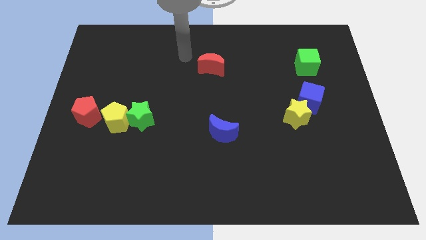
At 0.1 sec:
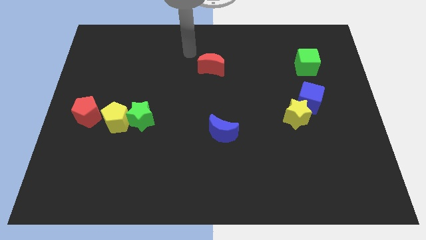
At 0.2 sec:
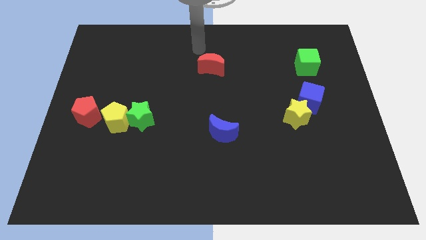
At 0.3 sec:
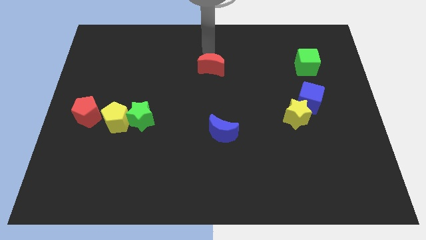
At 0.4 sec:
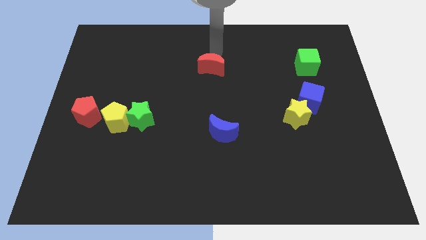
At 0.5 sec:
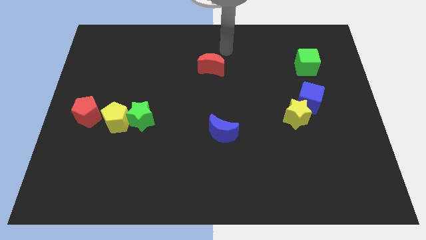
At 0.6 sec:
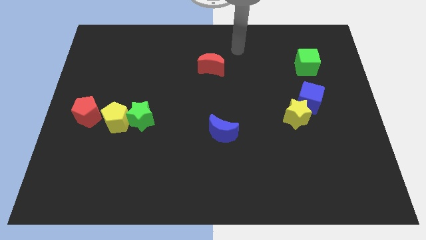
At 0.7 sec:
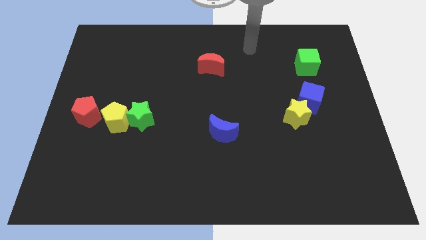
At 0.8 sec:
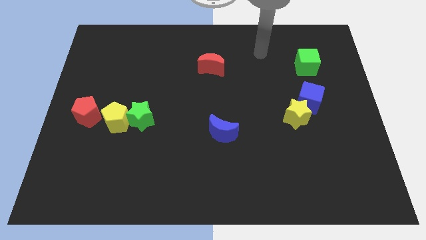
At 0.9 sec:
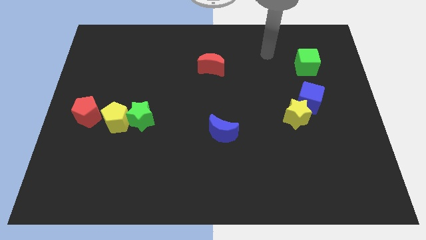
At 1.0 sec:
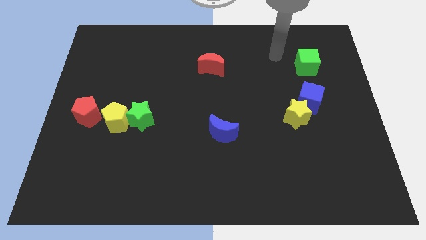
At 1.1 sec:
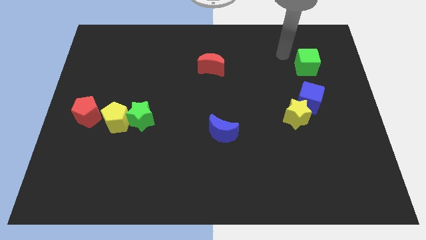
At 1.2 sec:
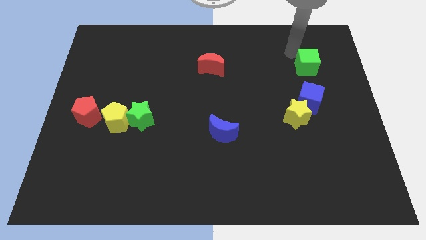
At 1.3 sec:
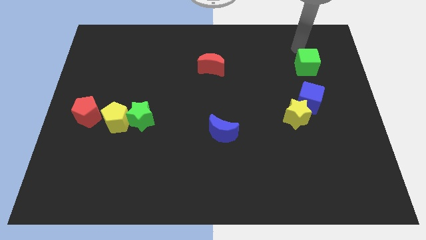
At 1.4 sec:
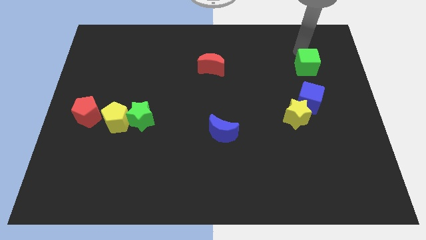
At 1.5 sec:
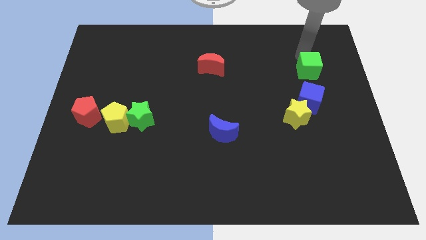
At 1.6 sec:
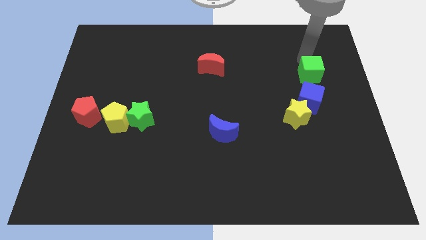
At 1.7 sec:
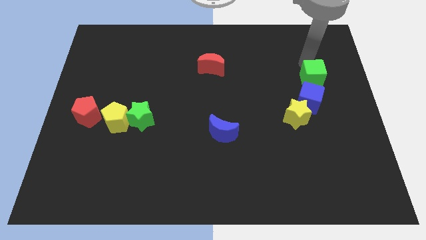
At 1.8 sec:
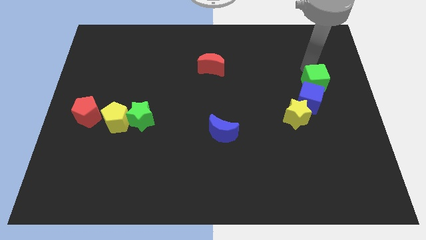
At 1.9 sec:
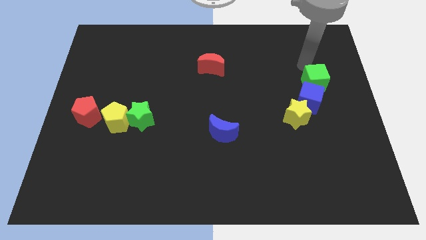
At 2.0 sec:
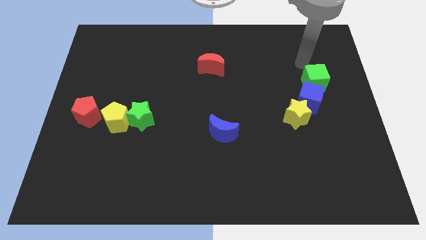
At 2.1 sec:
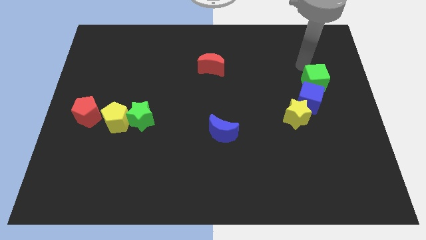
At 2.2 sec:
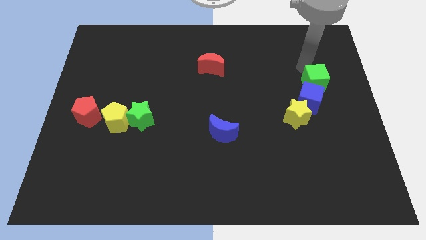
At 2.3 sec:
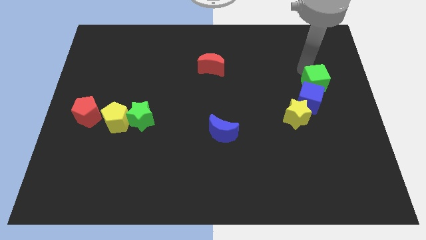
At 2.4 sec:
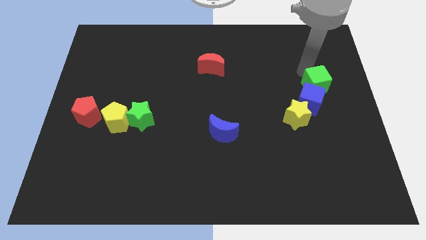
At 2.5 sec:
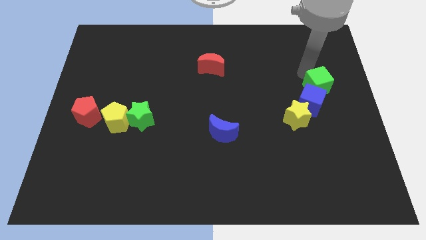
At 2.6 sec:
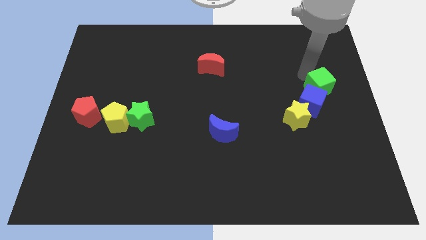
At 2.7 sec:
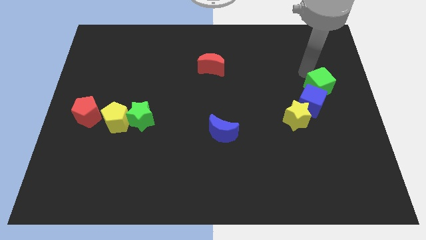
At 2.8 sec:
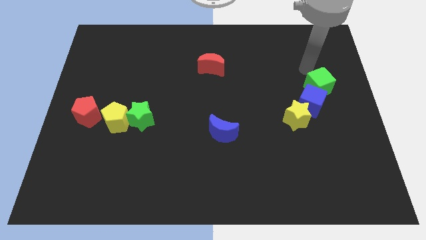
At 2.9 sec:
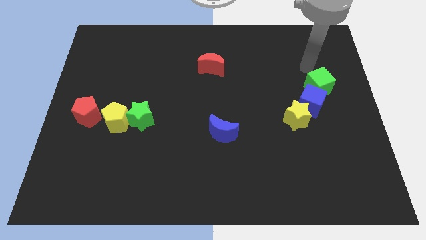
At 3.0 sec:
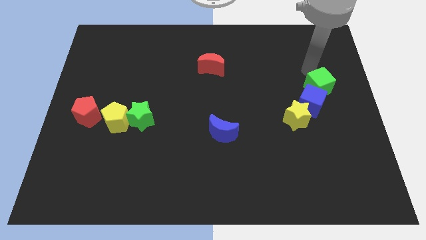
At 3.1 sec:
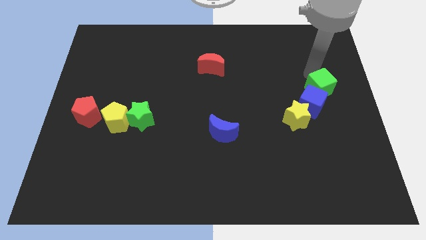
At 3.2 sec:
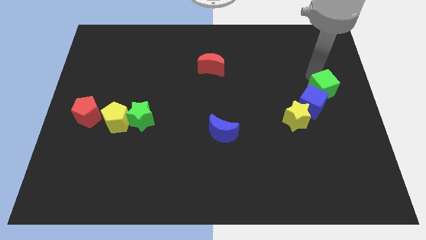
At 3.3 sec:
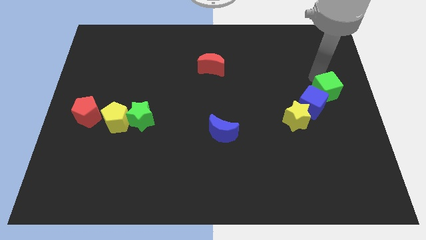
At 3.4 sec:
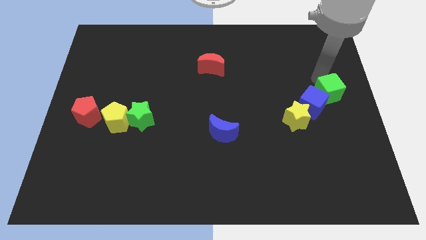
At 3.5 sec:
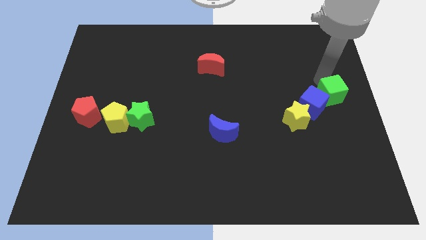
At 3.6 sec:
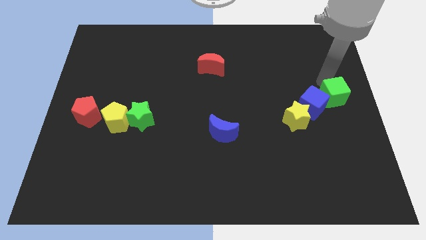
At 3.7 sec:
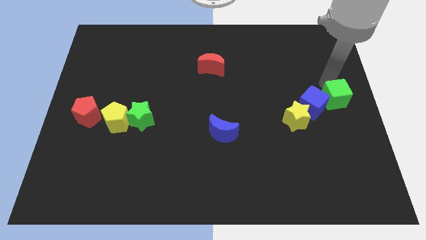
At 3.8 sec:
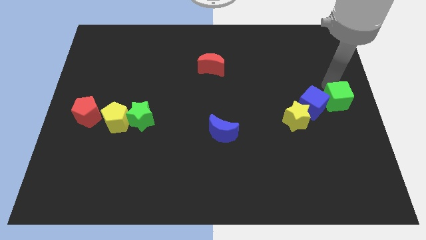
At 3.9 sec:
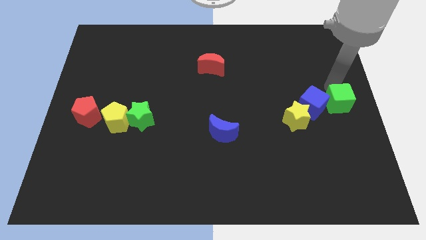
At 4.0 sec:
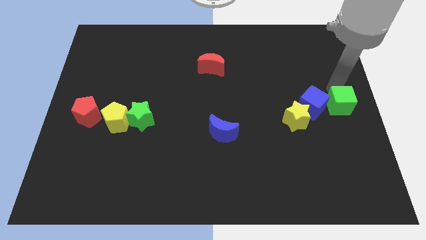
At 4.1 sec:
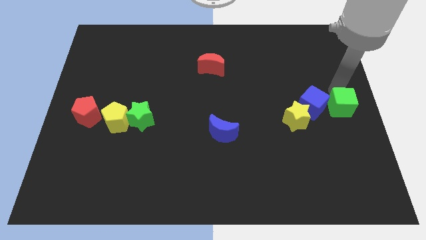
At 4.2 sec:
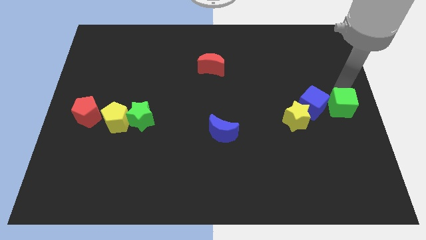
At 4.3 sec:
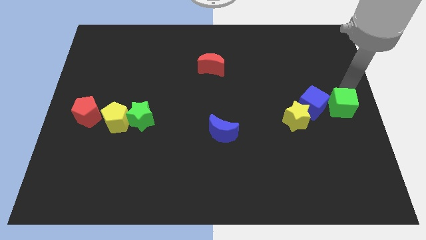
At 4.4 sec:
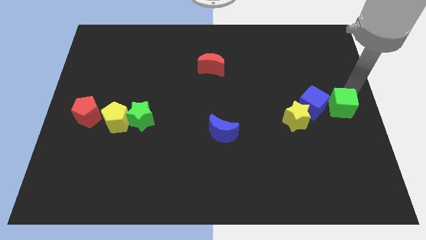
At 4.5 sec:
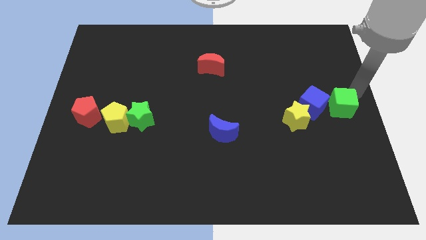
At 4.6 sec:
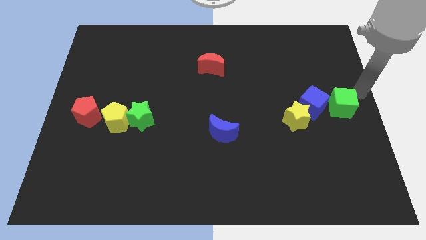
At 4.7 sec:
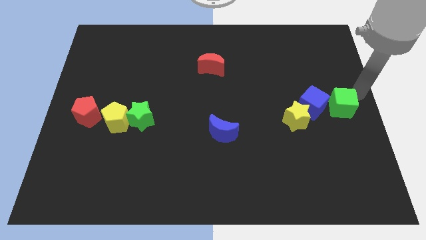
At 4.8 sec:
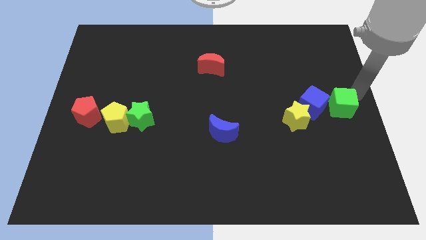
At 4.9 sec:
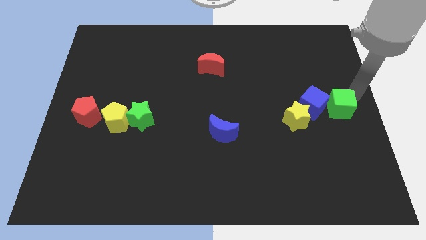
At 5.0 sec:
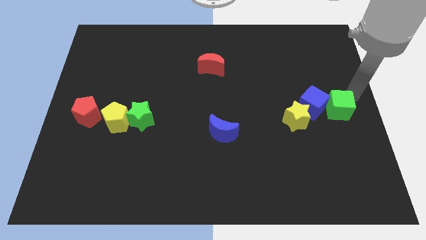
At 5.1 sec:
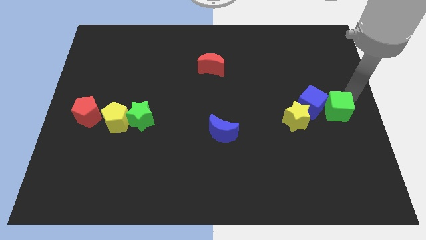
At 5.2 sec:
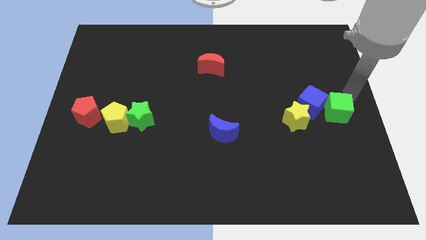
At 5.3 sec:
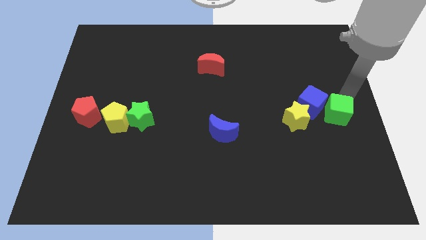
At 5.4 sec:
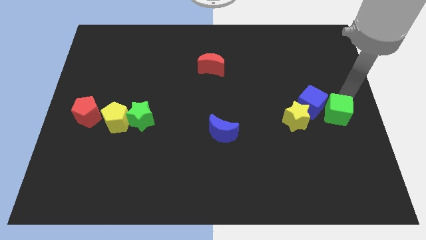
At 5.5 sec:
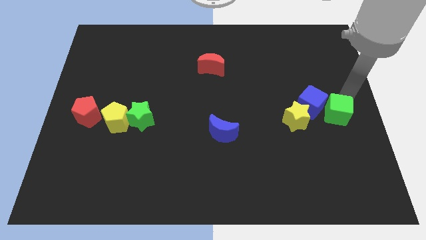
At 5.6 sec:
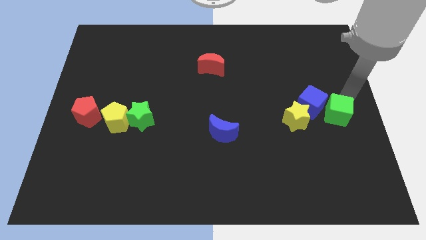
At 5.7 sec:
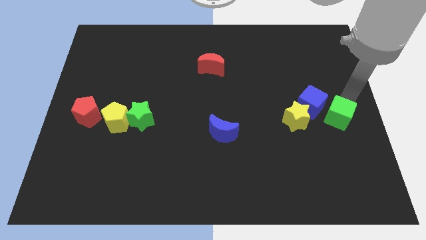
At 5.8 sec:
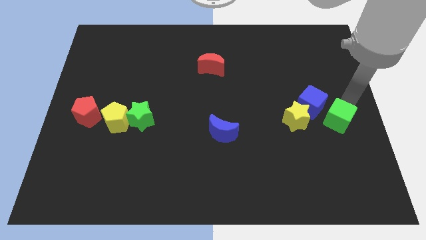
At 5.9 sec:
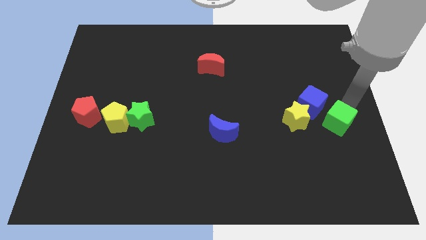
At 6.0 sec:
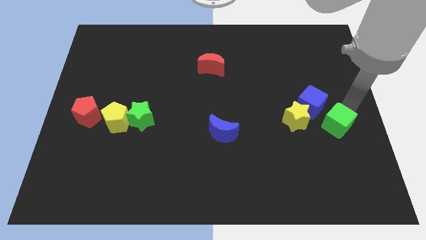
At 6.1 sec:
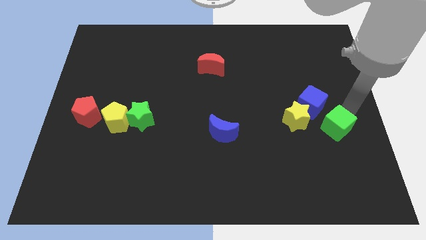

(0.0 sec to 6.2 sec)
push the green cube to the bottom right of the yellow star
